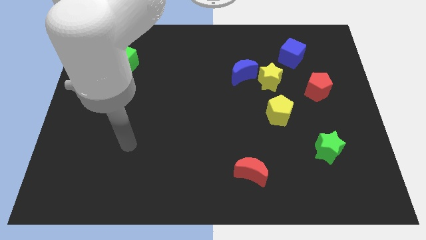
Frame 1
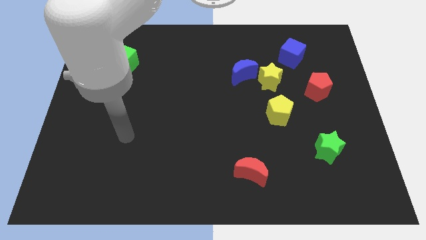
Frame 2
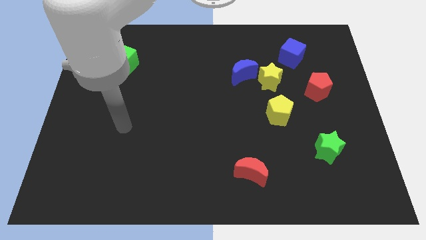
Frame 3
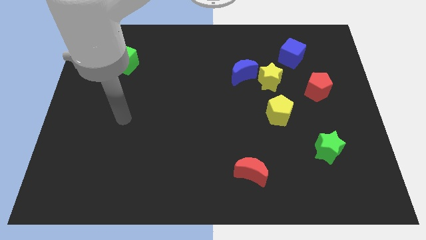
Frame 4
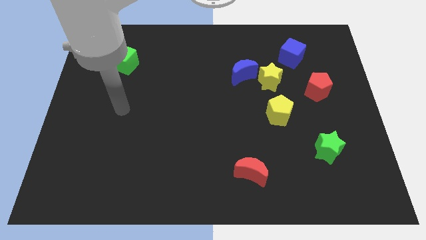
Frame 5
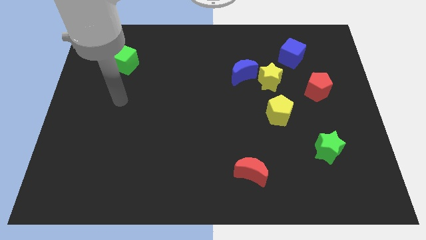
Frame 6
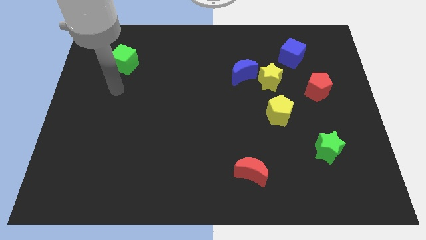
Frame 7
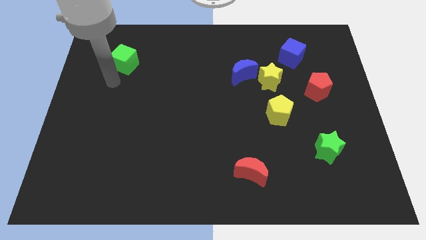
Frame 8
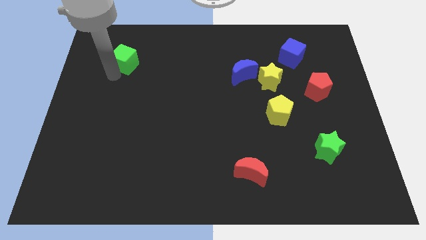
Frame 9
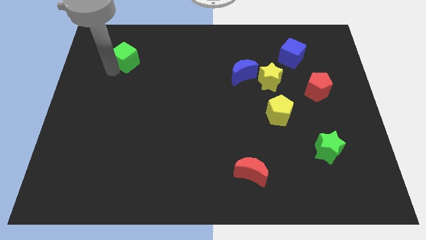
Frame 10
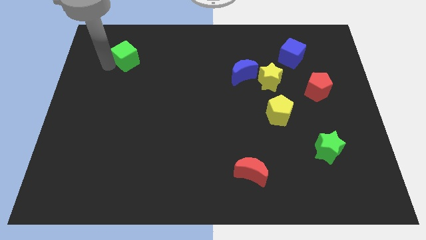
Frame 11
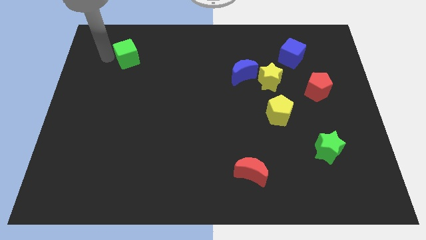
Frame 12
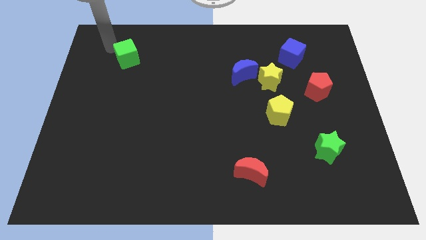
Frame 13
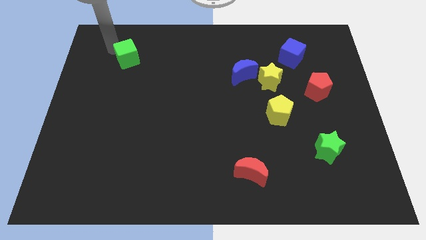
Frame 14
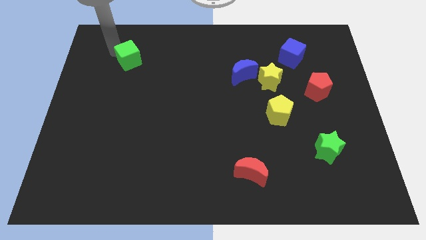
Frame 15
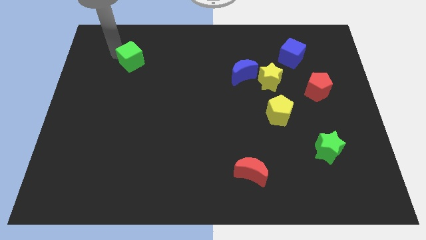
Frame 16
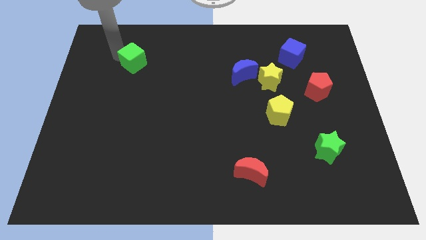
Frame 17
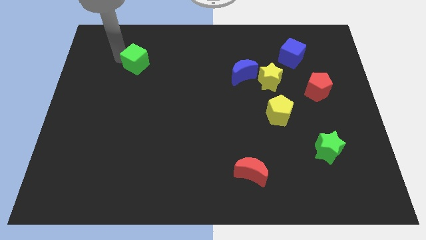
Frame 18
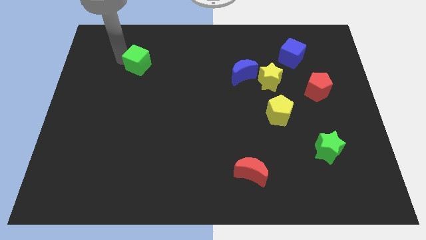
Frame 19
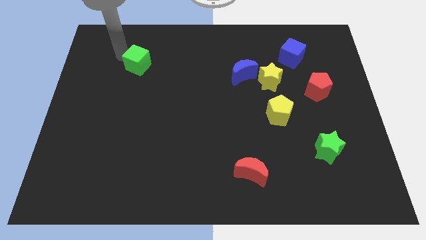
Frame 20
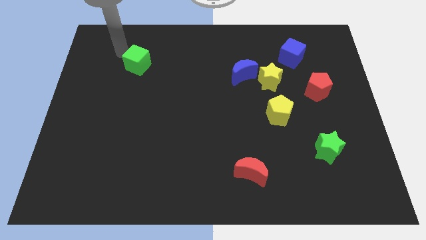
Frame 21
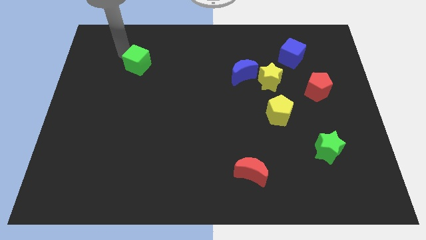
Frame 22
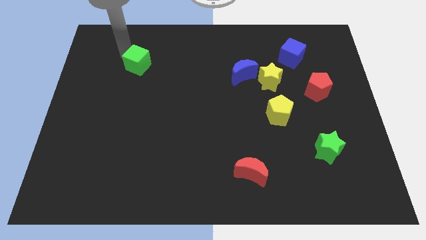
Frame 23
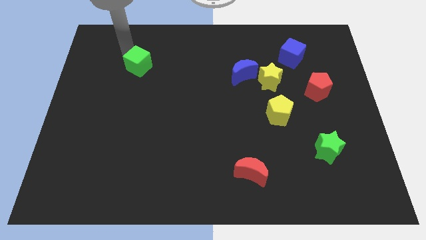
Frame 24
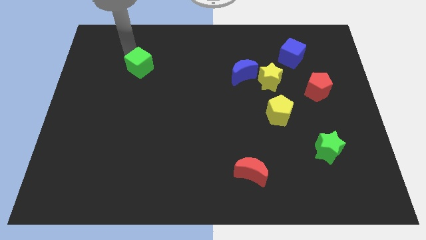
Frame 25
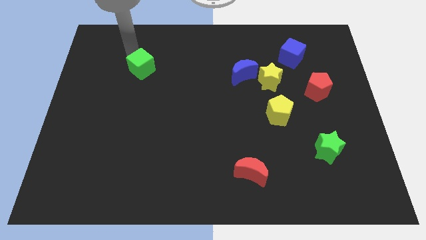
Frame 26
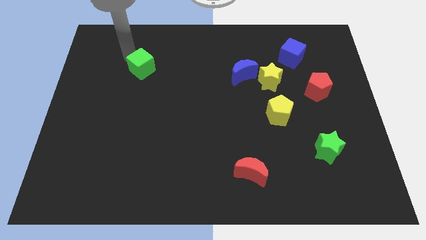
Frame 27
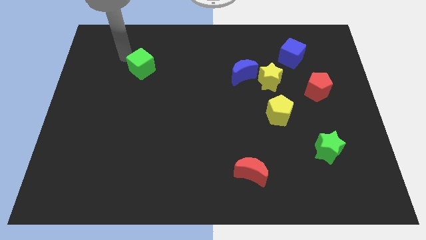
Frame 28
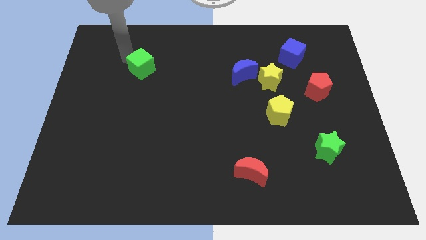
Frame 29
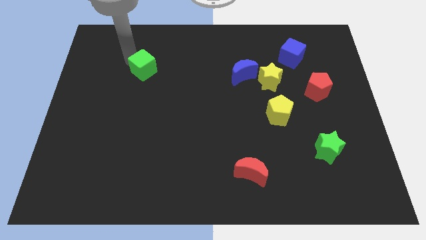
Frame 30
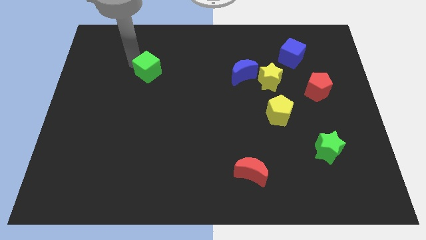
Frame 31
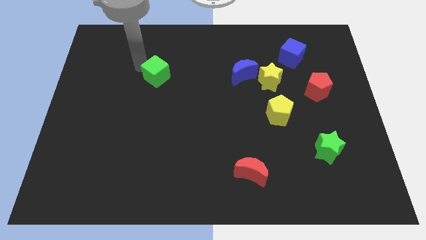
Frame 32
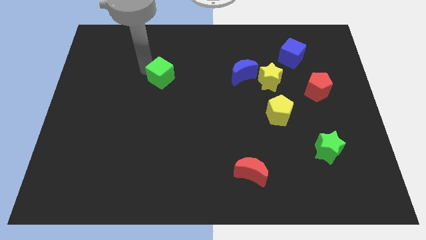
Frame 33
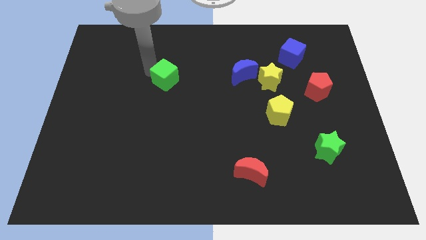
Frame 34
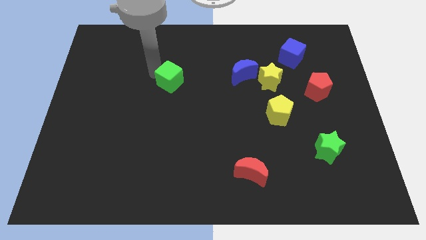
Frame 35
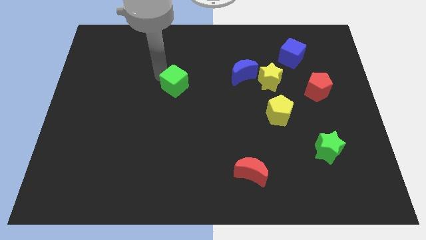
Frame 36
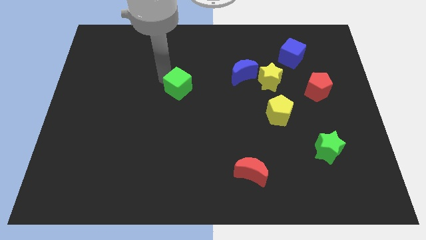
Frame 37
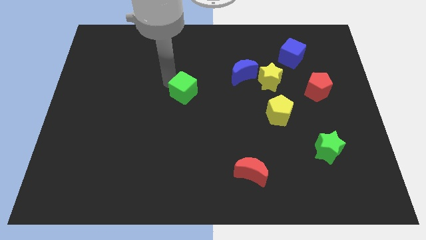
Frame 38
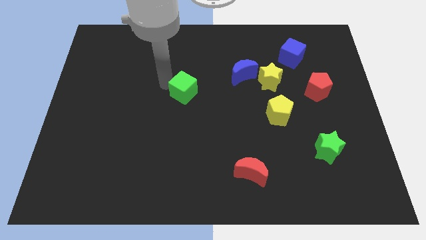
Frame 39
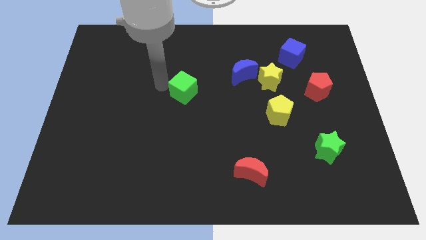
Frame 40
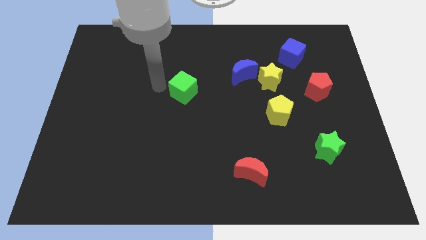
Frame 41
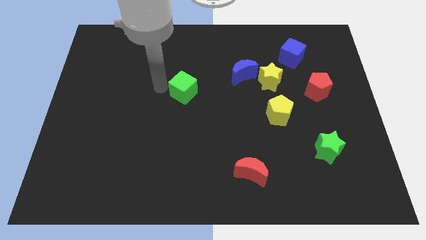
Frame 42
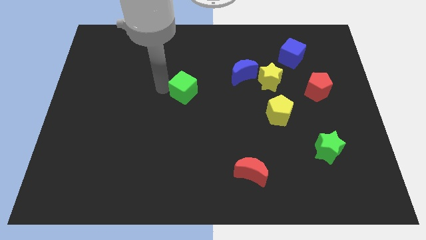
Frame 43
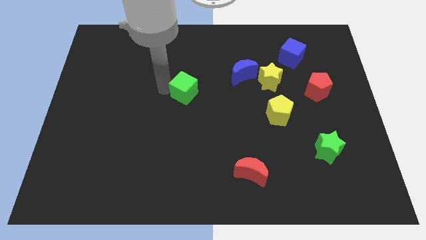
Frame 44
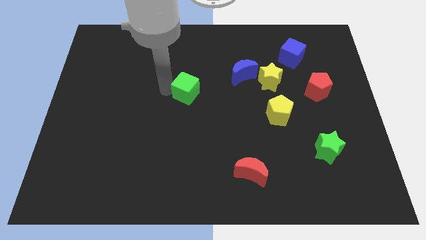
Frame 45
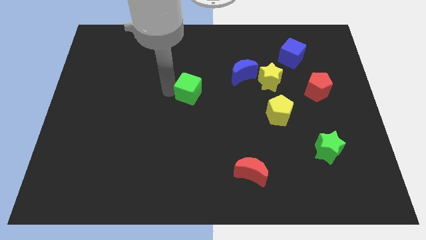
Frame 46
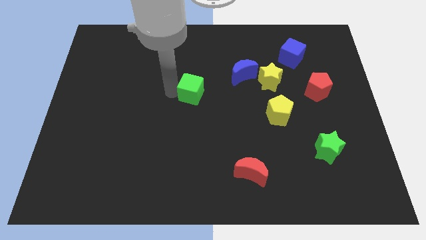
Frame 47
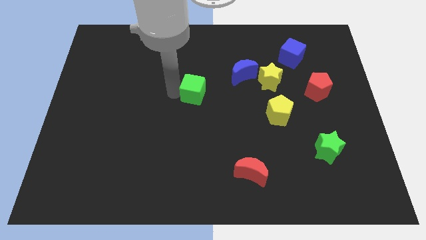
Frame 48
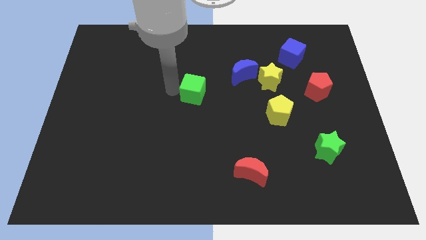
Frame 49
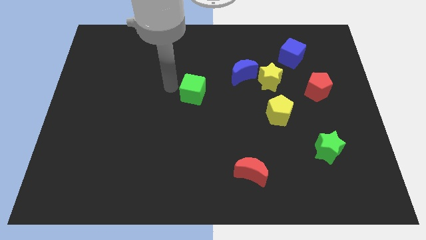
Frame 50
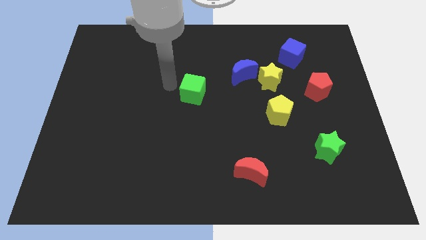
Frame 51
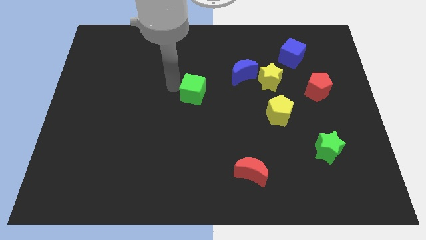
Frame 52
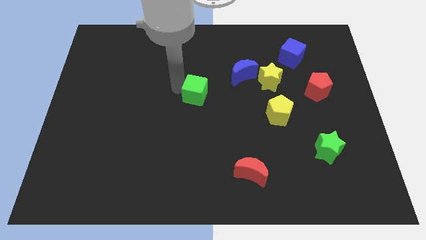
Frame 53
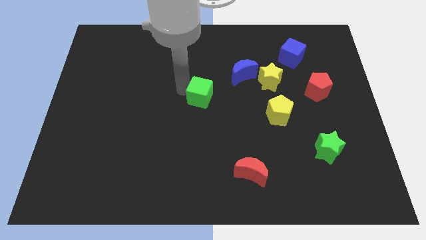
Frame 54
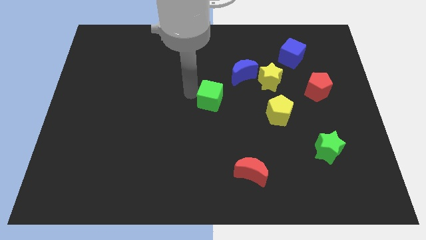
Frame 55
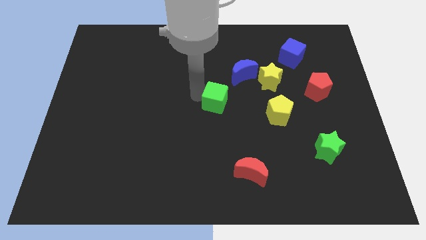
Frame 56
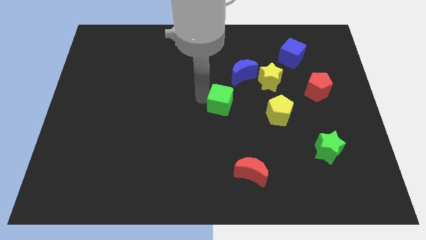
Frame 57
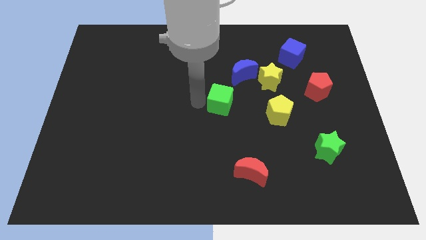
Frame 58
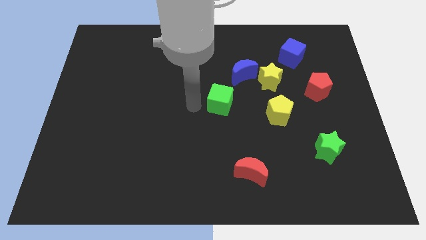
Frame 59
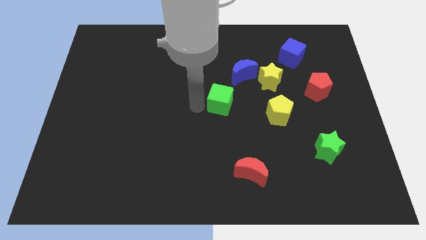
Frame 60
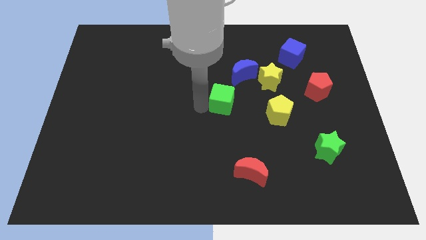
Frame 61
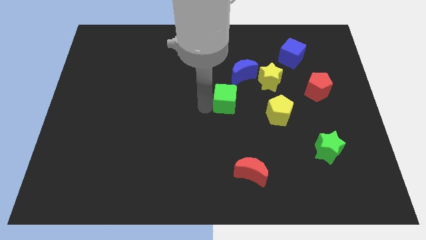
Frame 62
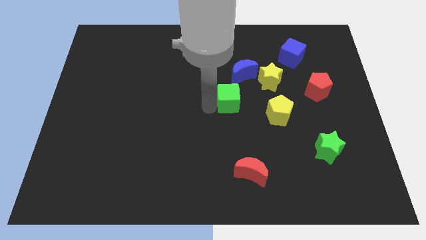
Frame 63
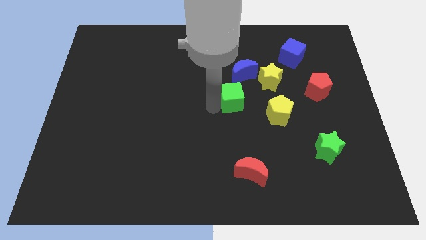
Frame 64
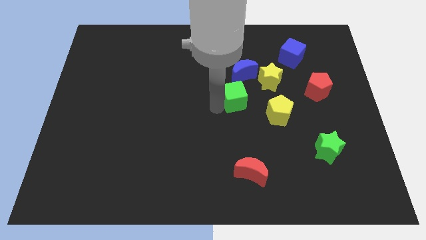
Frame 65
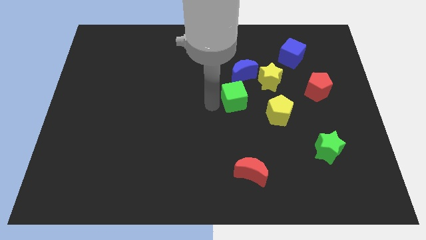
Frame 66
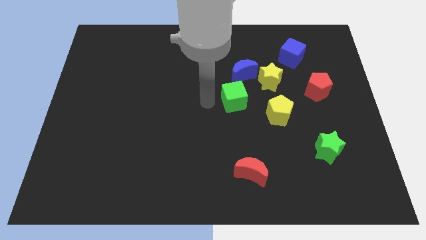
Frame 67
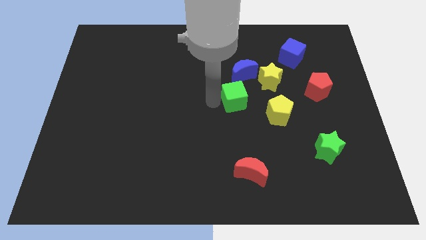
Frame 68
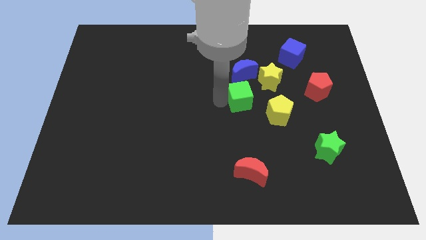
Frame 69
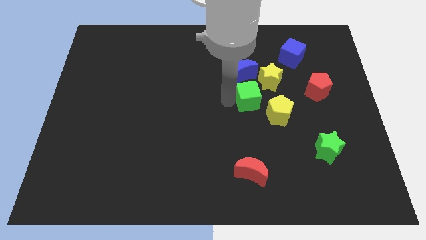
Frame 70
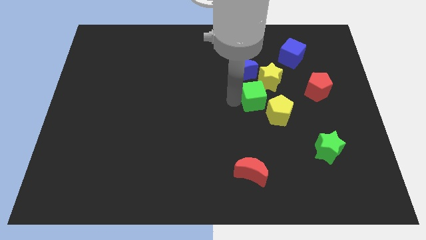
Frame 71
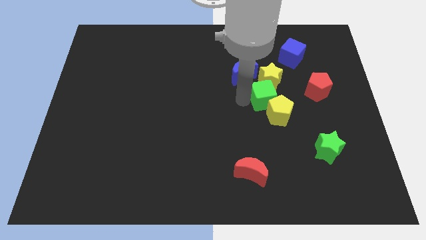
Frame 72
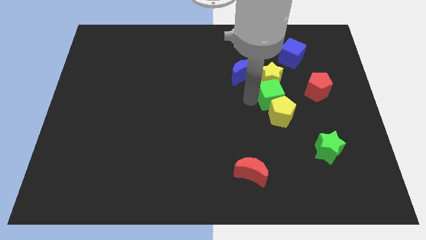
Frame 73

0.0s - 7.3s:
move the green cube diagonally down and to the right of the yellow star
